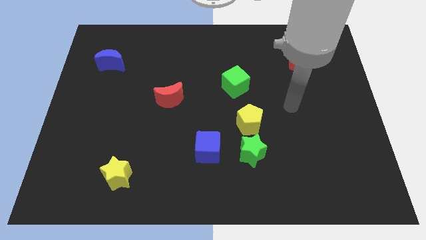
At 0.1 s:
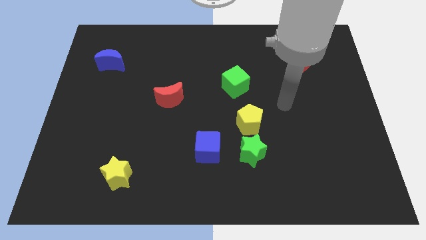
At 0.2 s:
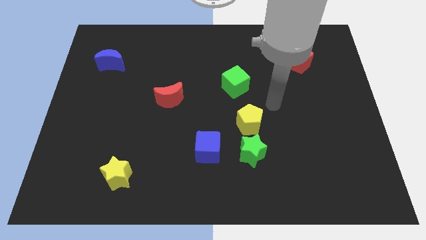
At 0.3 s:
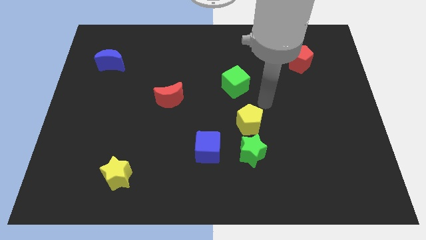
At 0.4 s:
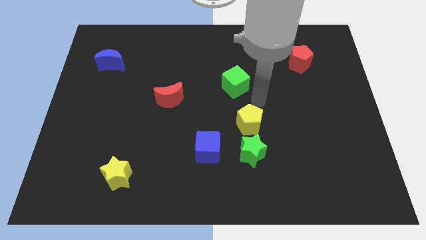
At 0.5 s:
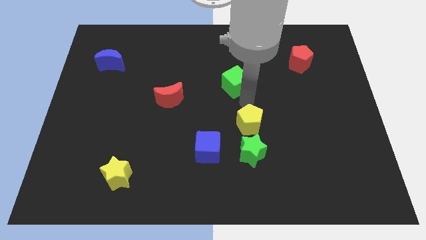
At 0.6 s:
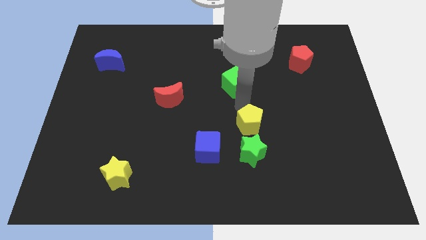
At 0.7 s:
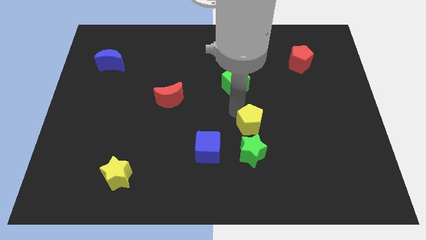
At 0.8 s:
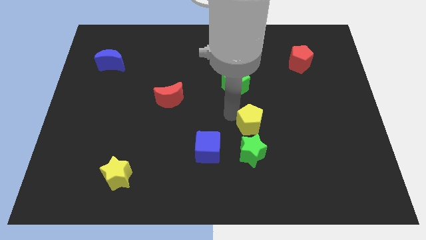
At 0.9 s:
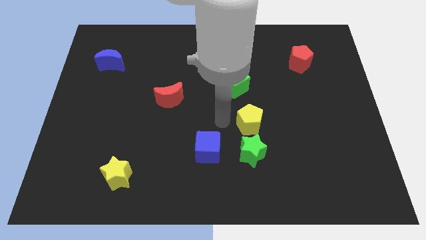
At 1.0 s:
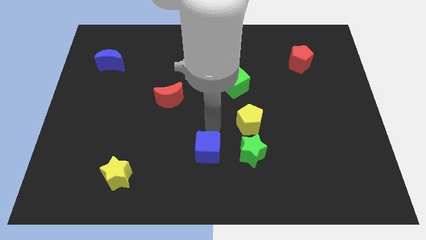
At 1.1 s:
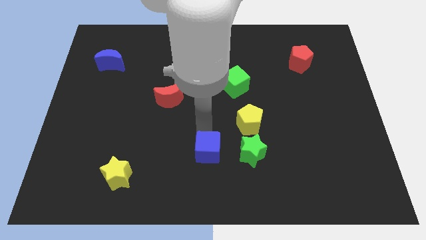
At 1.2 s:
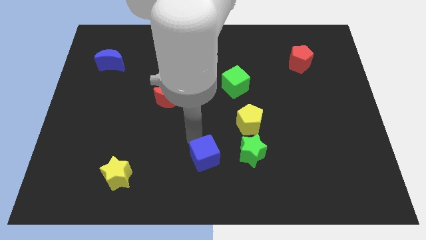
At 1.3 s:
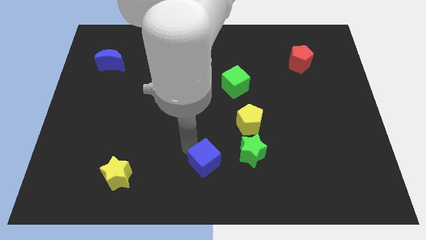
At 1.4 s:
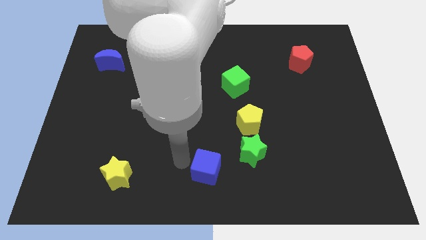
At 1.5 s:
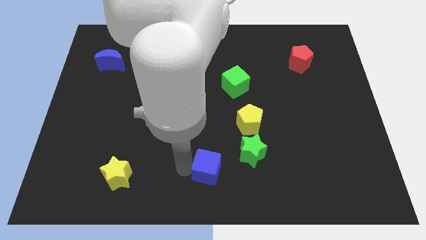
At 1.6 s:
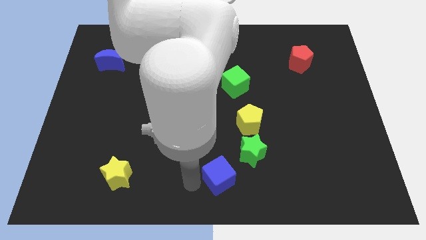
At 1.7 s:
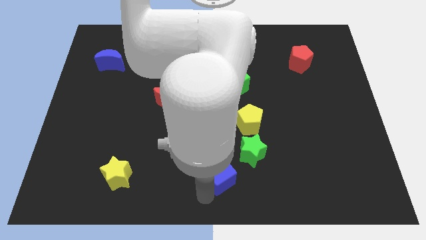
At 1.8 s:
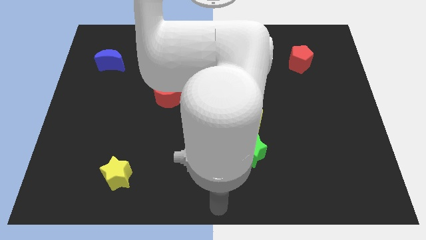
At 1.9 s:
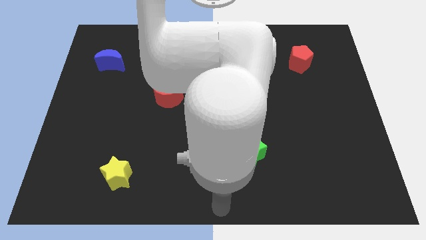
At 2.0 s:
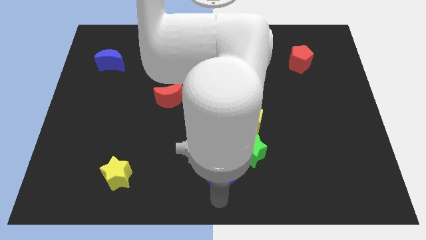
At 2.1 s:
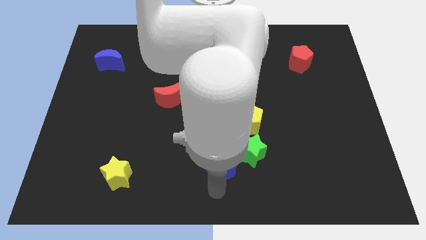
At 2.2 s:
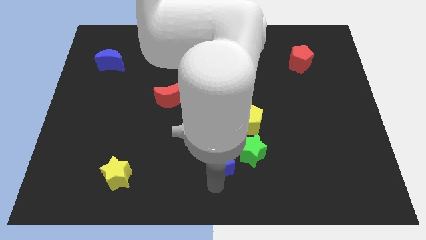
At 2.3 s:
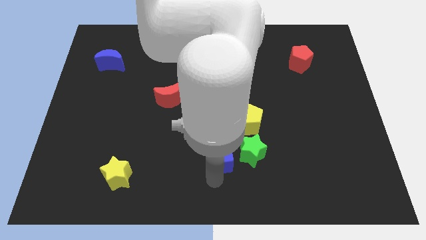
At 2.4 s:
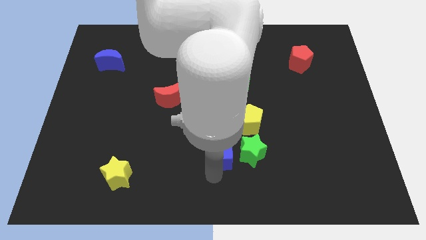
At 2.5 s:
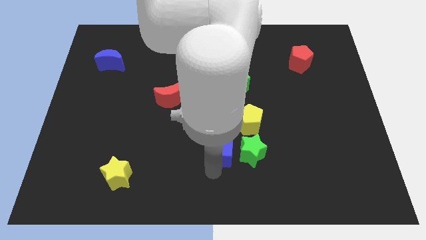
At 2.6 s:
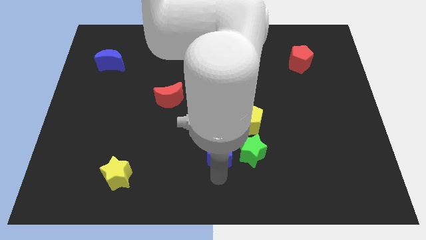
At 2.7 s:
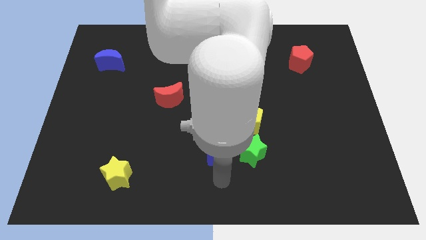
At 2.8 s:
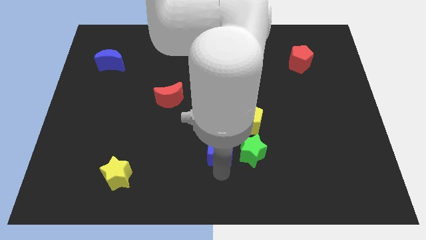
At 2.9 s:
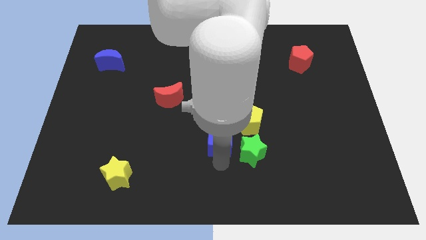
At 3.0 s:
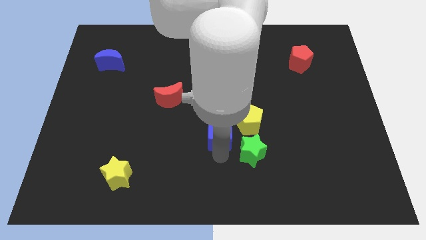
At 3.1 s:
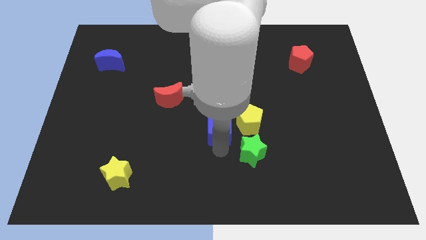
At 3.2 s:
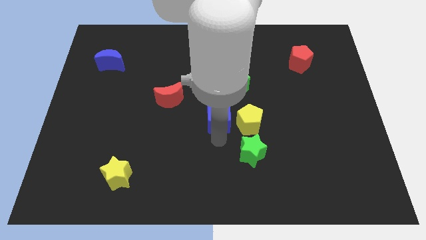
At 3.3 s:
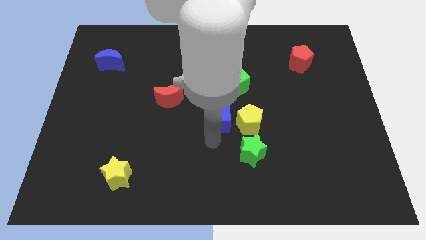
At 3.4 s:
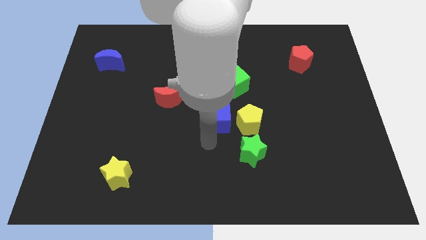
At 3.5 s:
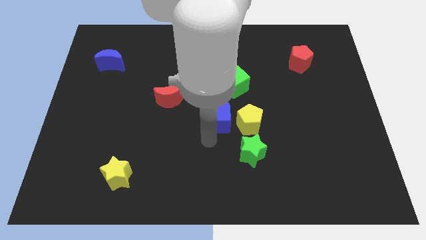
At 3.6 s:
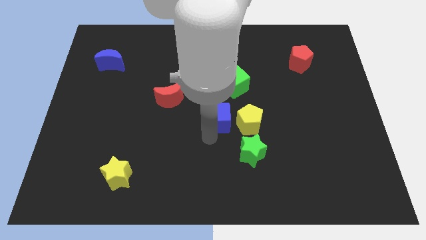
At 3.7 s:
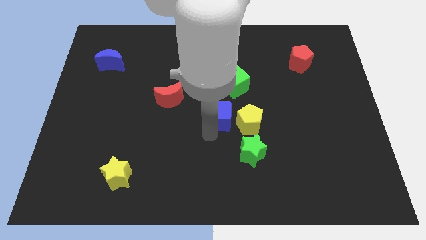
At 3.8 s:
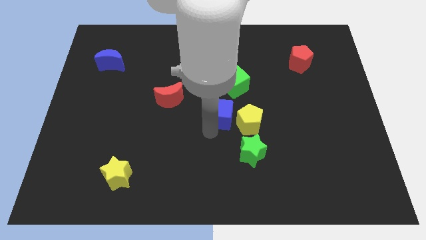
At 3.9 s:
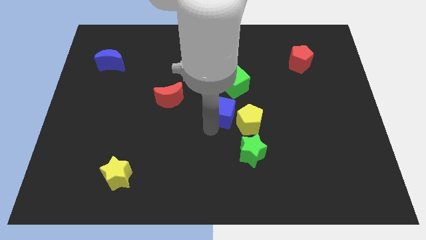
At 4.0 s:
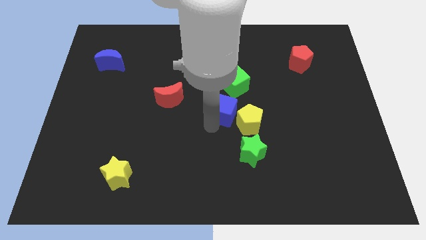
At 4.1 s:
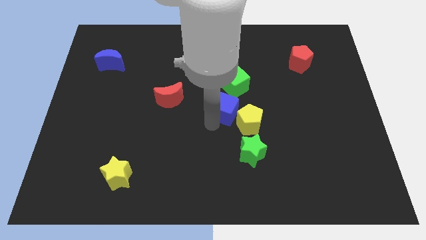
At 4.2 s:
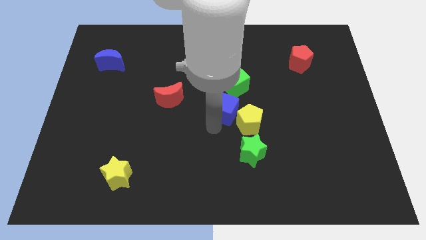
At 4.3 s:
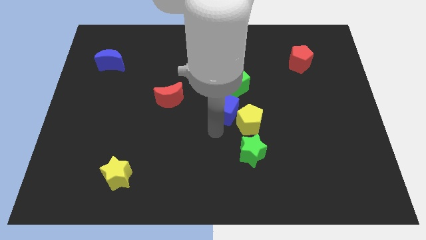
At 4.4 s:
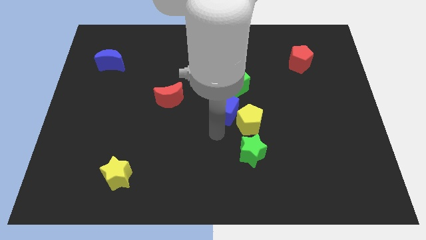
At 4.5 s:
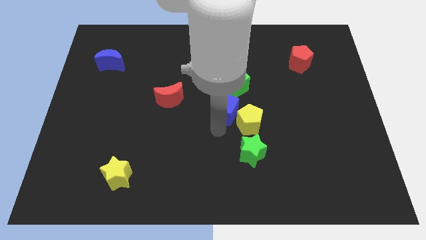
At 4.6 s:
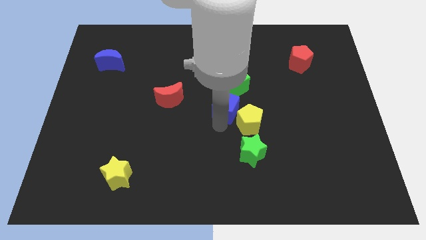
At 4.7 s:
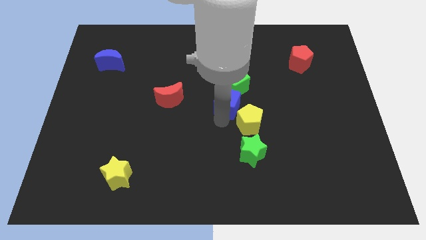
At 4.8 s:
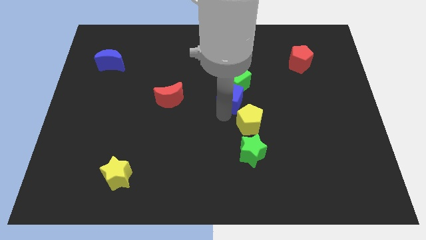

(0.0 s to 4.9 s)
slide the blue cube next to the green cube

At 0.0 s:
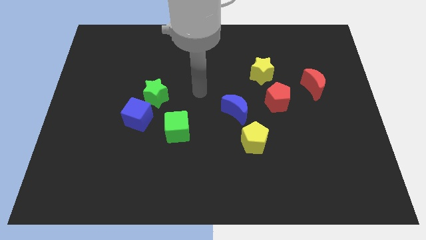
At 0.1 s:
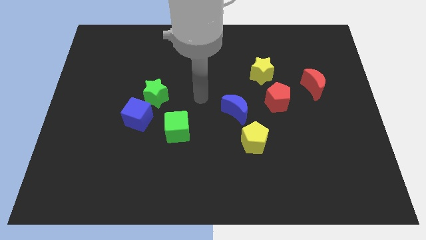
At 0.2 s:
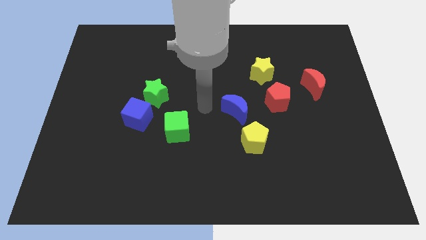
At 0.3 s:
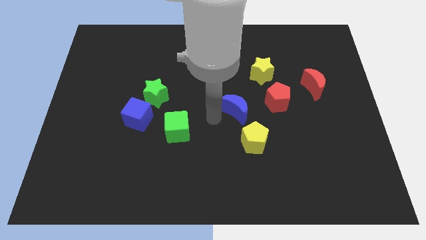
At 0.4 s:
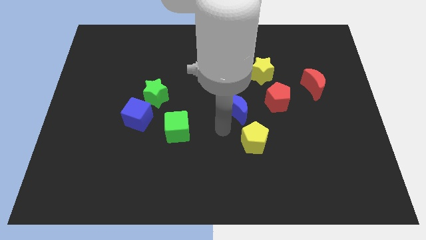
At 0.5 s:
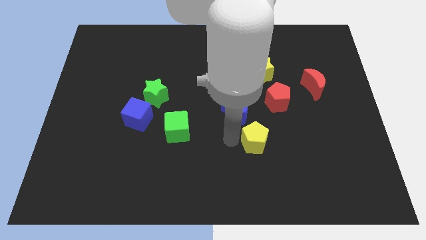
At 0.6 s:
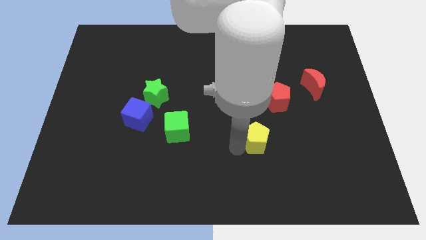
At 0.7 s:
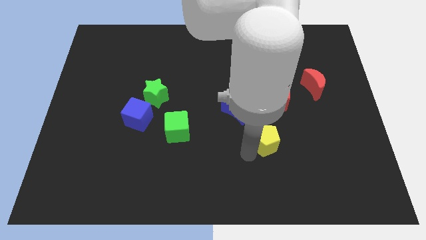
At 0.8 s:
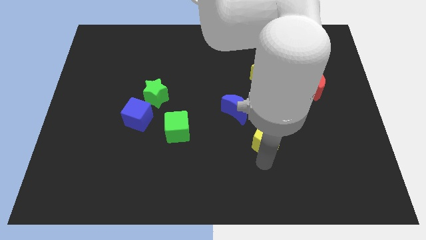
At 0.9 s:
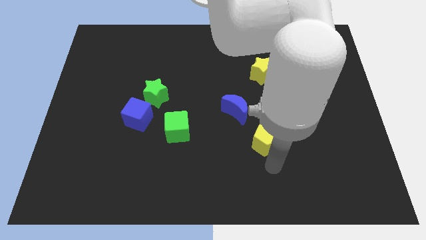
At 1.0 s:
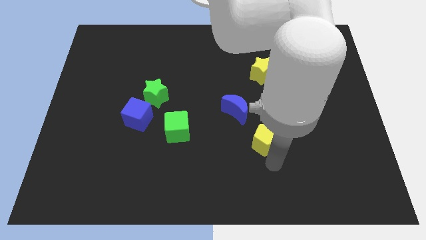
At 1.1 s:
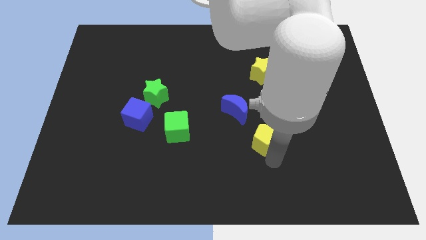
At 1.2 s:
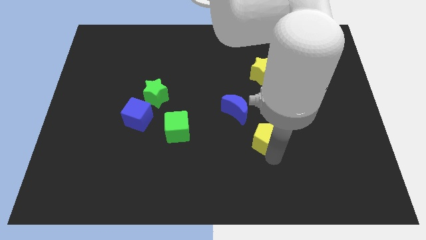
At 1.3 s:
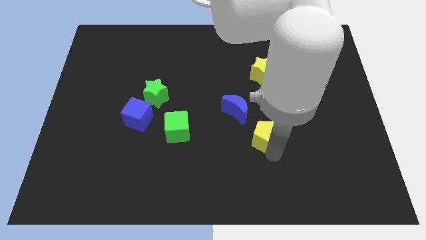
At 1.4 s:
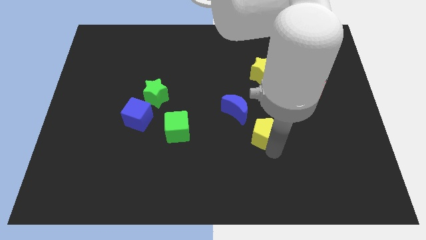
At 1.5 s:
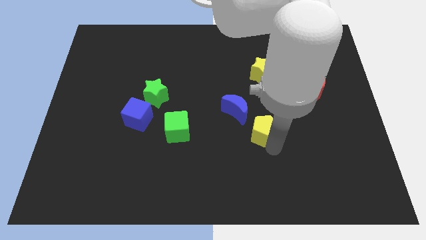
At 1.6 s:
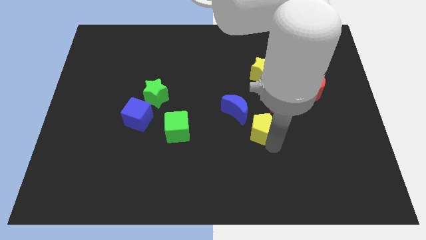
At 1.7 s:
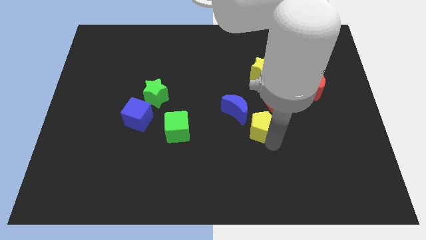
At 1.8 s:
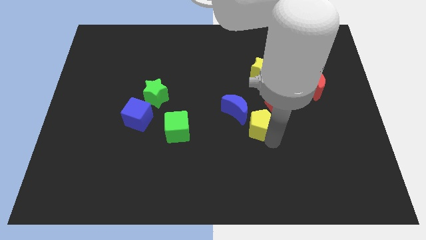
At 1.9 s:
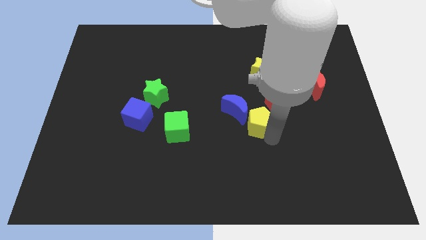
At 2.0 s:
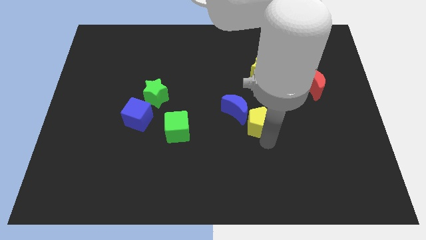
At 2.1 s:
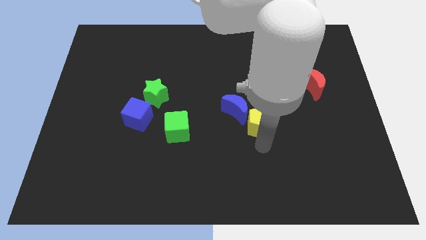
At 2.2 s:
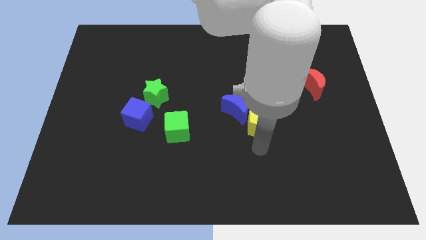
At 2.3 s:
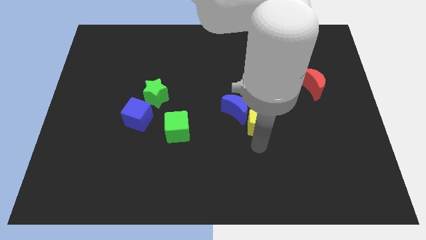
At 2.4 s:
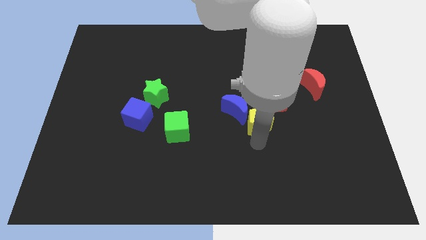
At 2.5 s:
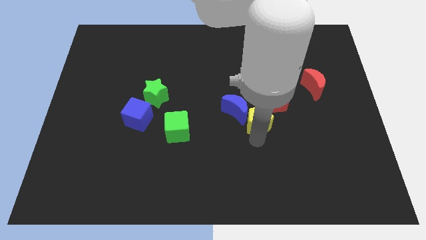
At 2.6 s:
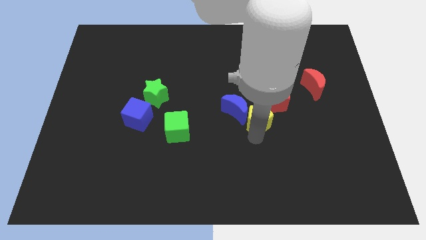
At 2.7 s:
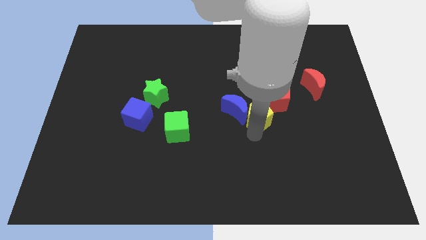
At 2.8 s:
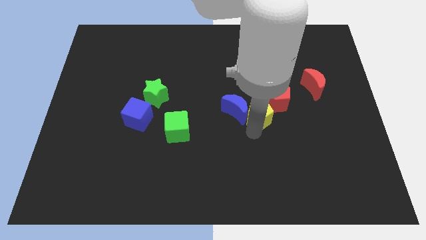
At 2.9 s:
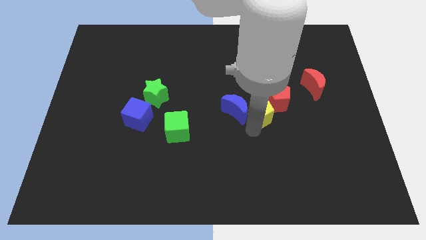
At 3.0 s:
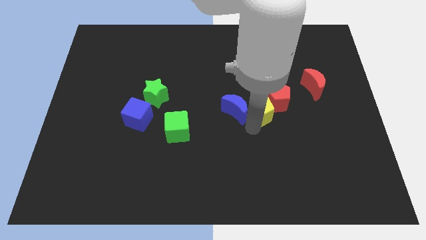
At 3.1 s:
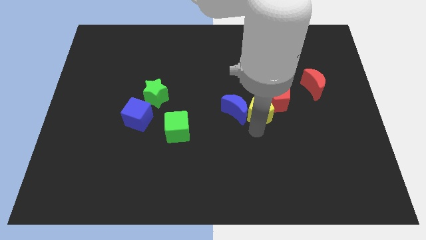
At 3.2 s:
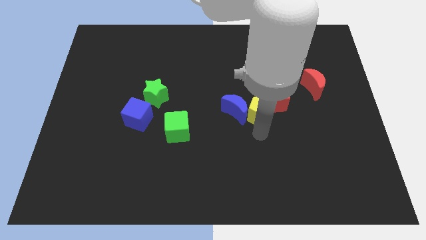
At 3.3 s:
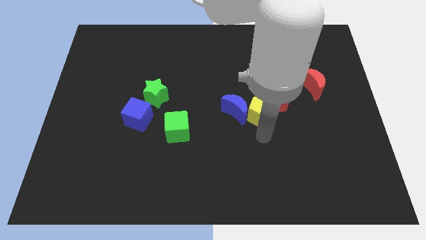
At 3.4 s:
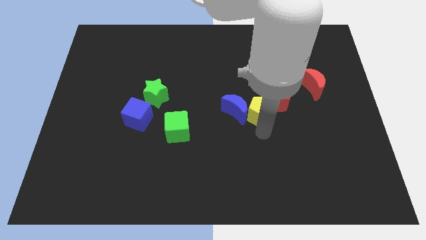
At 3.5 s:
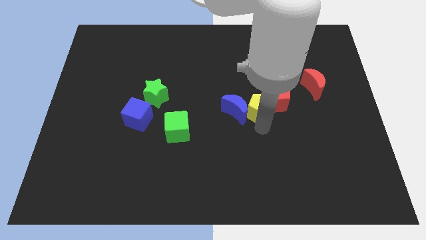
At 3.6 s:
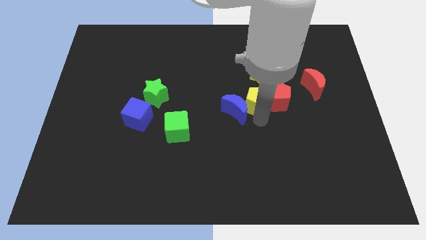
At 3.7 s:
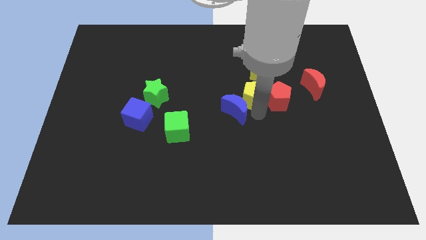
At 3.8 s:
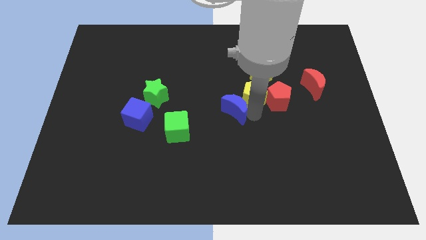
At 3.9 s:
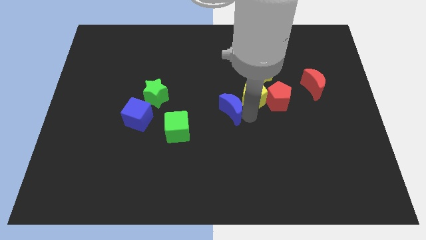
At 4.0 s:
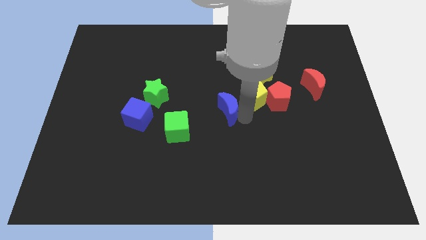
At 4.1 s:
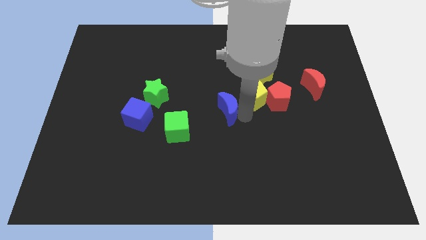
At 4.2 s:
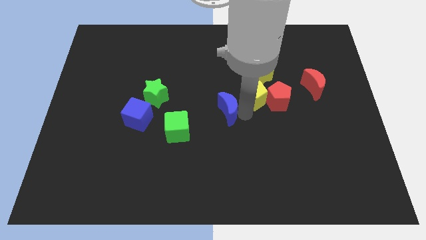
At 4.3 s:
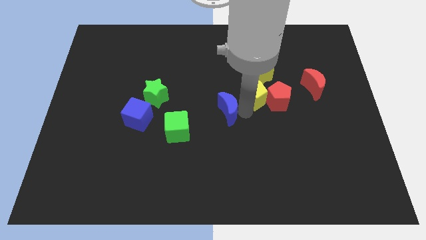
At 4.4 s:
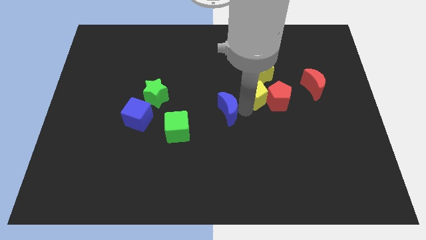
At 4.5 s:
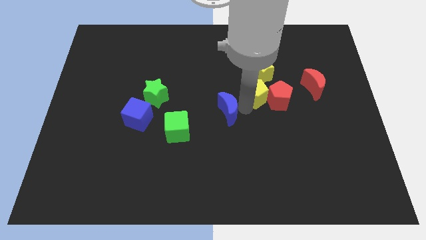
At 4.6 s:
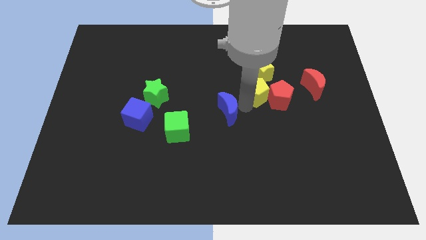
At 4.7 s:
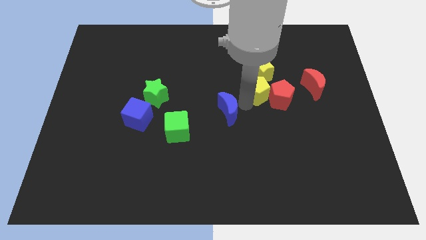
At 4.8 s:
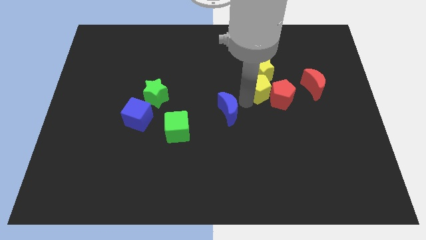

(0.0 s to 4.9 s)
move the yellow pentagon to the yellow star
